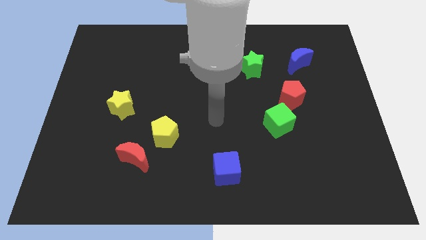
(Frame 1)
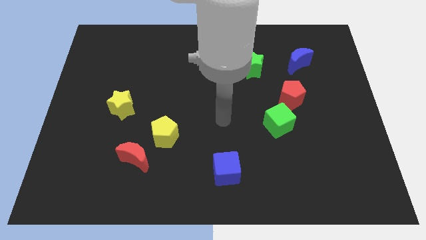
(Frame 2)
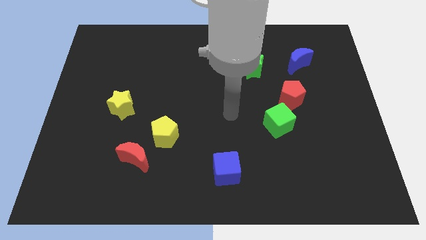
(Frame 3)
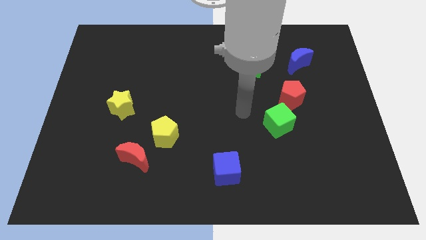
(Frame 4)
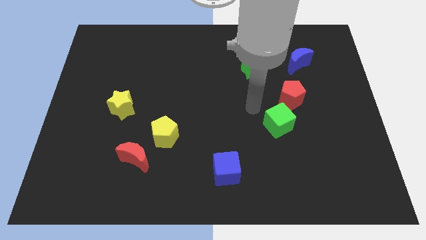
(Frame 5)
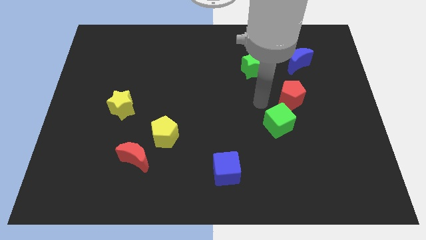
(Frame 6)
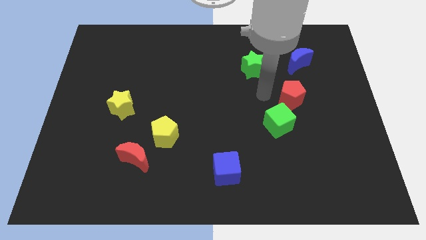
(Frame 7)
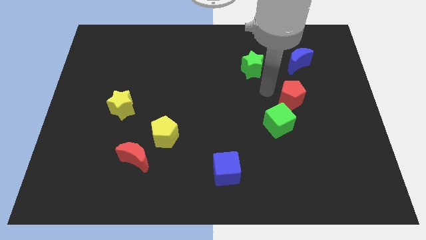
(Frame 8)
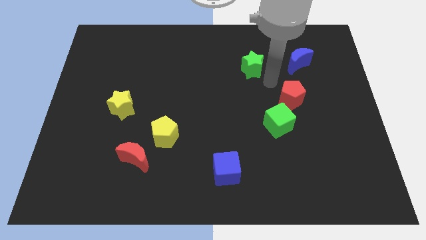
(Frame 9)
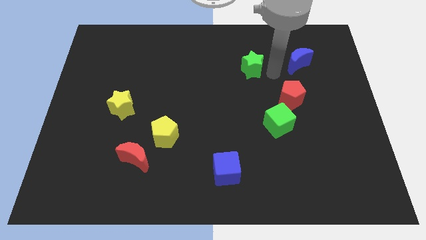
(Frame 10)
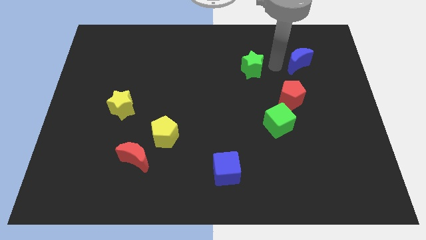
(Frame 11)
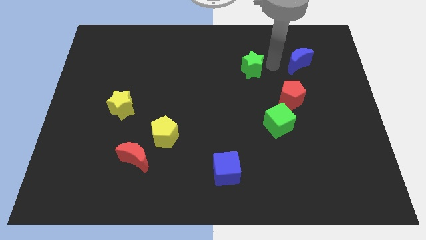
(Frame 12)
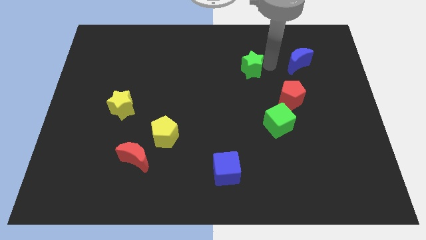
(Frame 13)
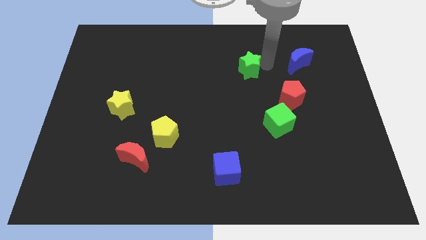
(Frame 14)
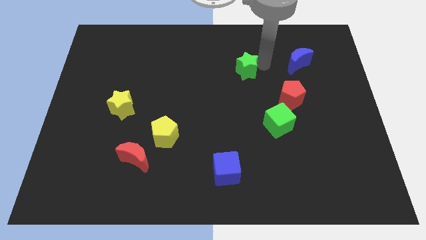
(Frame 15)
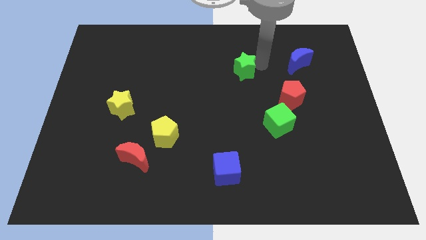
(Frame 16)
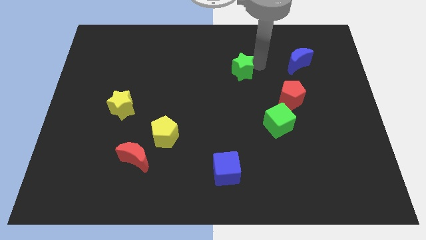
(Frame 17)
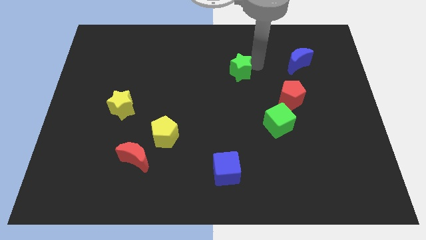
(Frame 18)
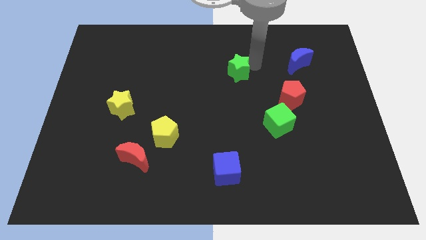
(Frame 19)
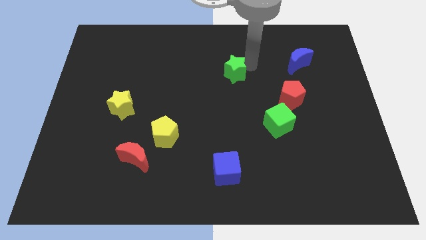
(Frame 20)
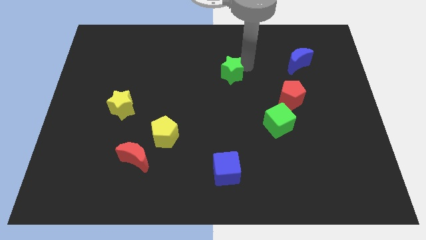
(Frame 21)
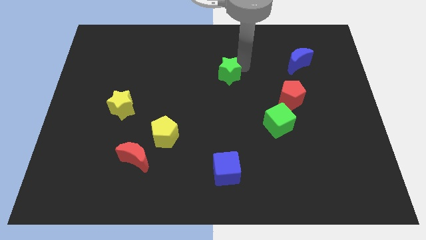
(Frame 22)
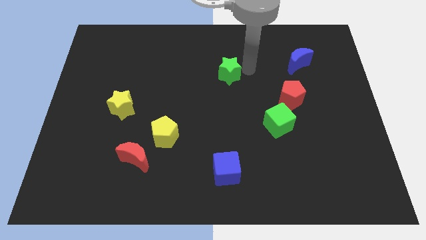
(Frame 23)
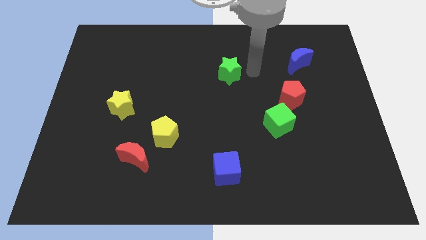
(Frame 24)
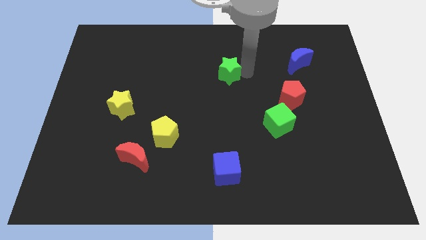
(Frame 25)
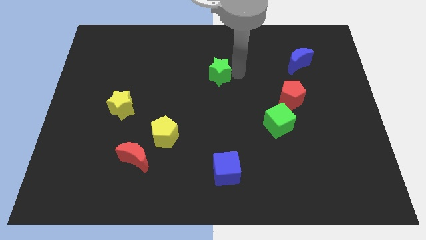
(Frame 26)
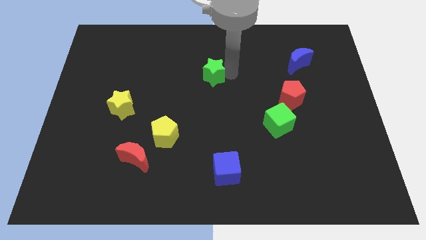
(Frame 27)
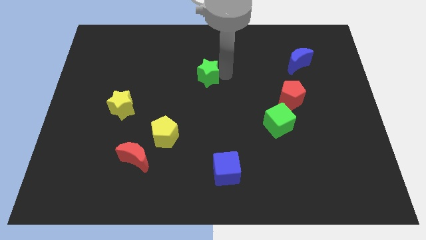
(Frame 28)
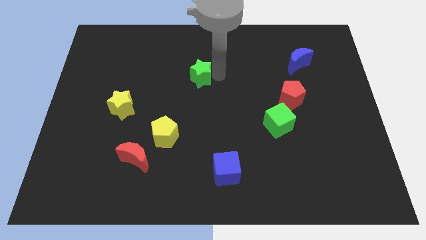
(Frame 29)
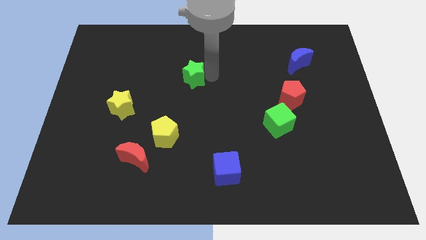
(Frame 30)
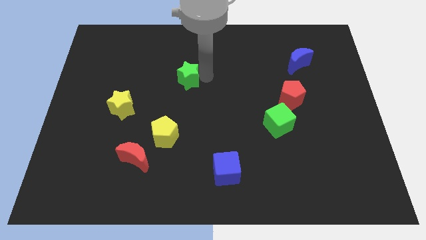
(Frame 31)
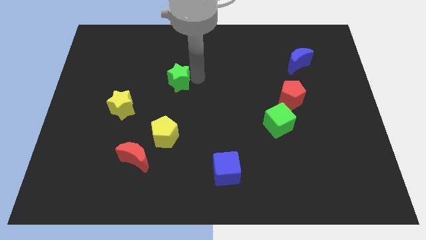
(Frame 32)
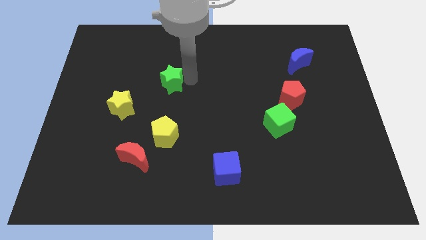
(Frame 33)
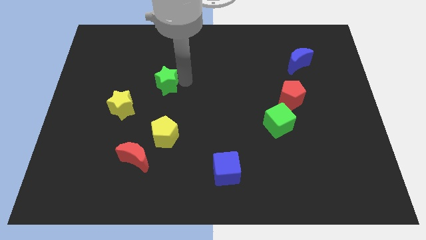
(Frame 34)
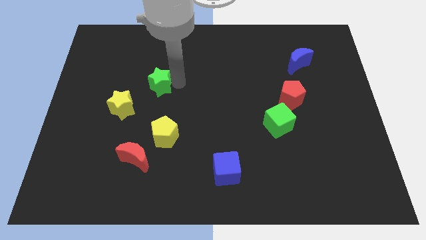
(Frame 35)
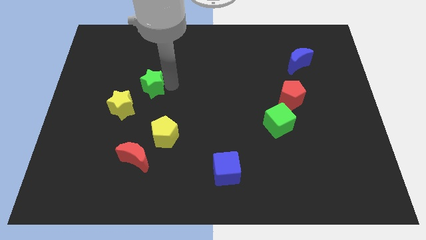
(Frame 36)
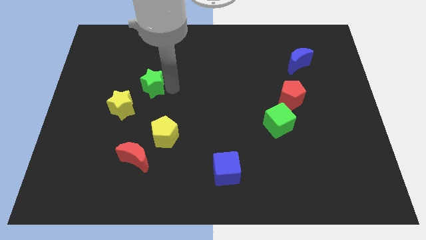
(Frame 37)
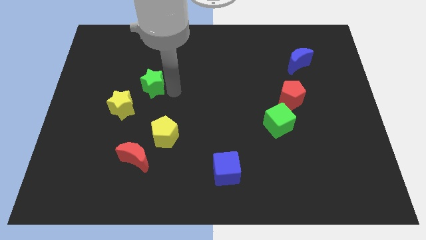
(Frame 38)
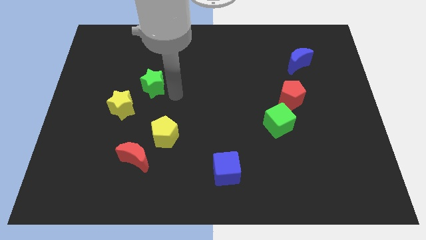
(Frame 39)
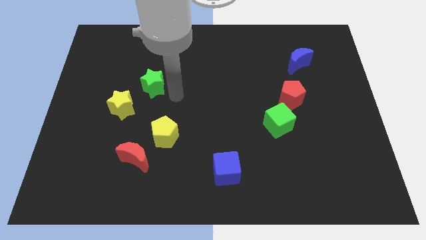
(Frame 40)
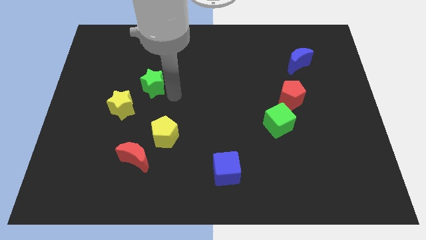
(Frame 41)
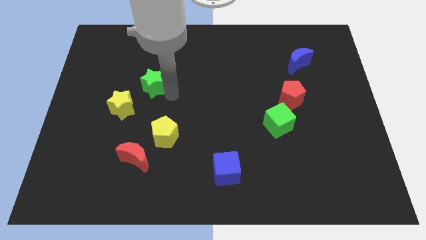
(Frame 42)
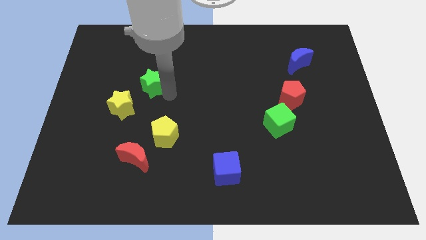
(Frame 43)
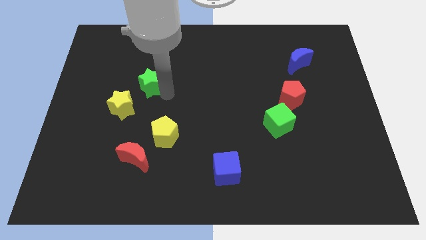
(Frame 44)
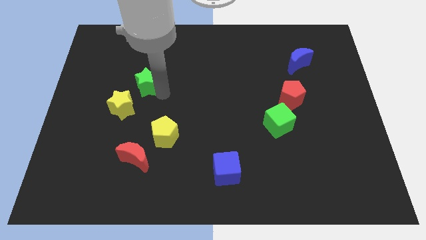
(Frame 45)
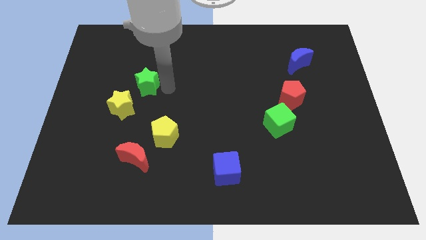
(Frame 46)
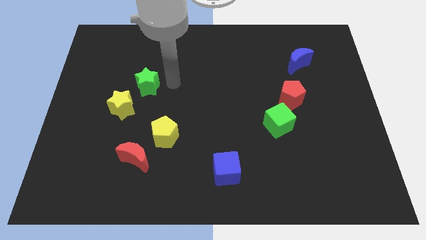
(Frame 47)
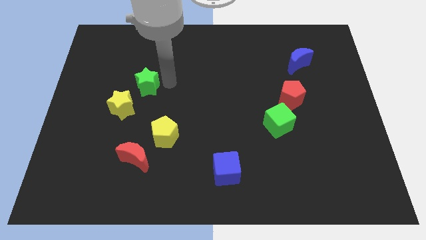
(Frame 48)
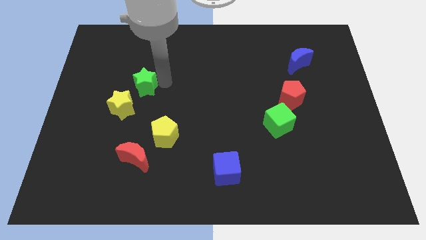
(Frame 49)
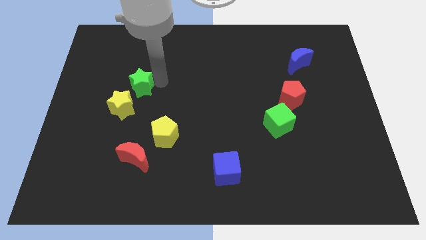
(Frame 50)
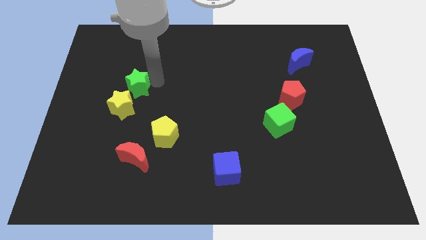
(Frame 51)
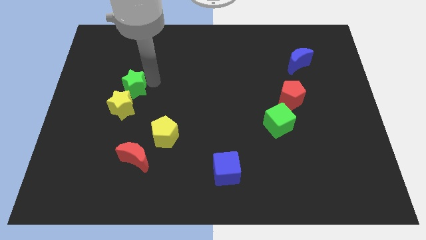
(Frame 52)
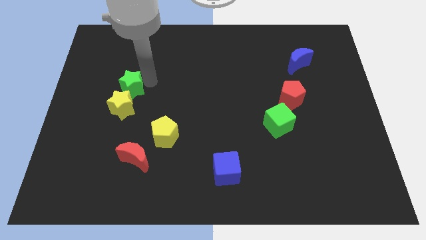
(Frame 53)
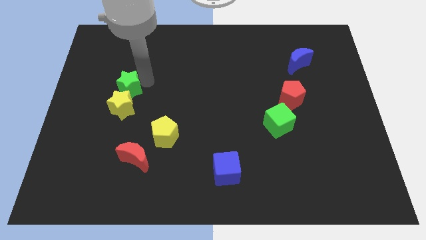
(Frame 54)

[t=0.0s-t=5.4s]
slide the green star diagonally up and to the left of the yellow star

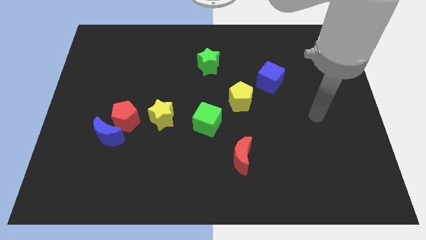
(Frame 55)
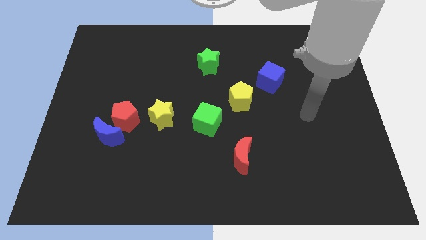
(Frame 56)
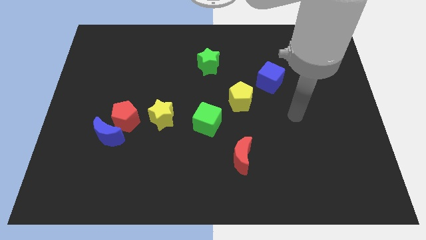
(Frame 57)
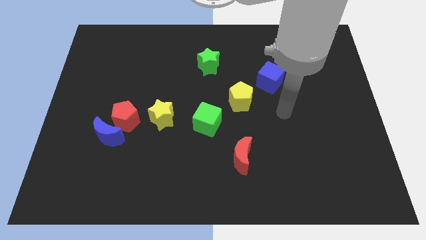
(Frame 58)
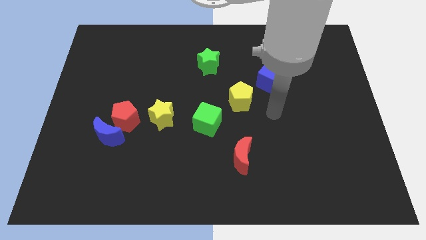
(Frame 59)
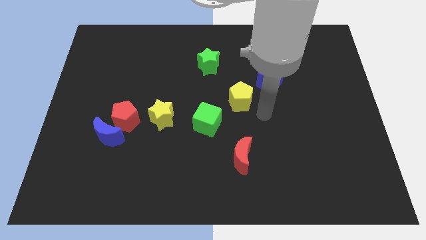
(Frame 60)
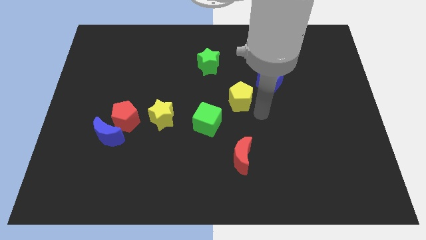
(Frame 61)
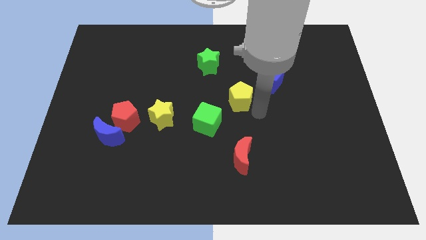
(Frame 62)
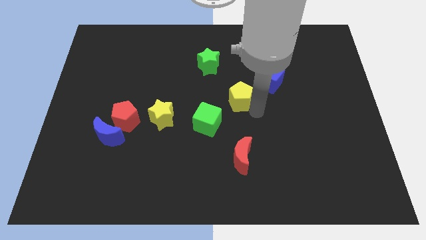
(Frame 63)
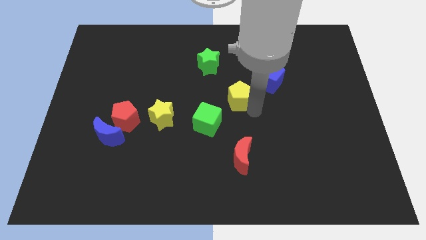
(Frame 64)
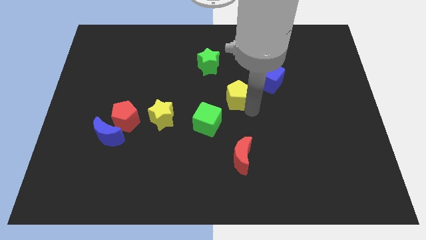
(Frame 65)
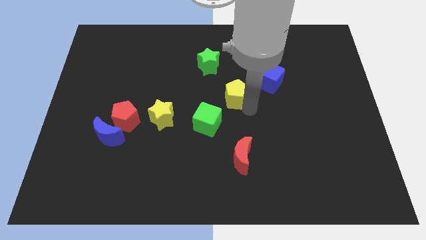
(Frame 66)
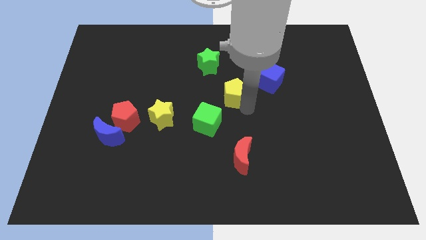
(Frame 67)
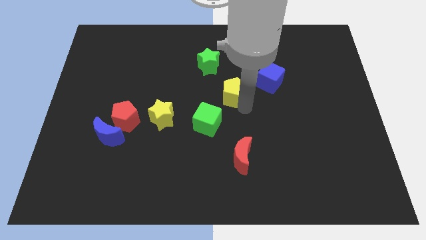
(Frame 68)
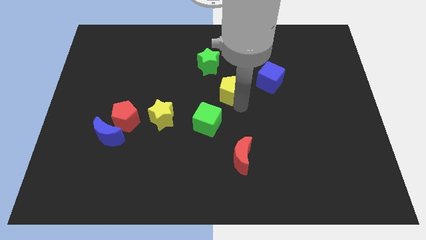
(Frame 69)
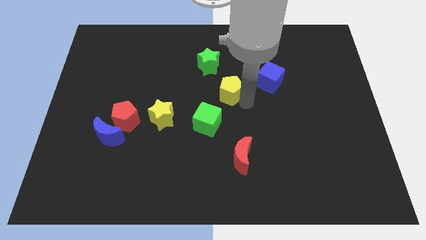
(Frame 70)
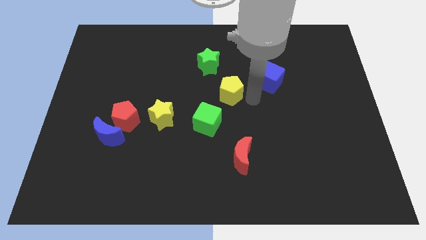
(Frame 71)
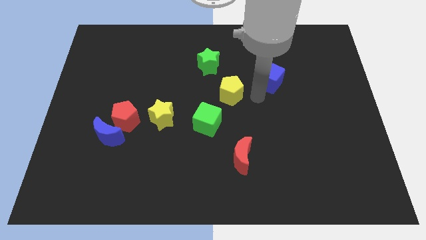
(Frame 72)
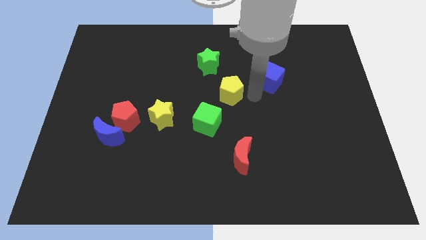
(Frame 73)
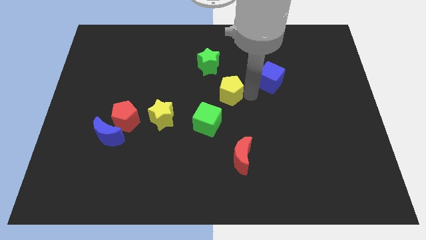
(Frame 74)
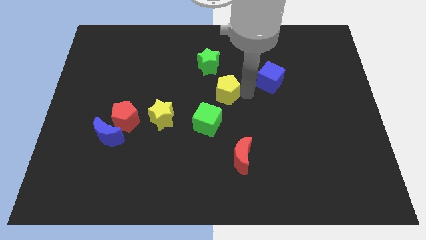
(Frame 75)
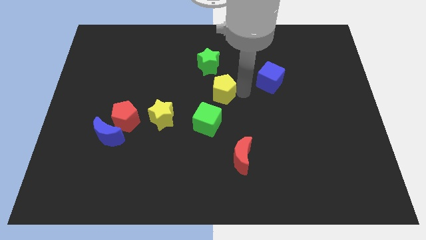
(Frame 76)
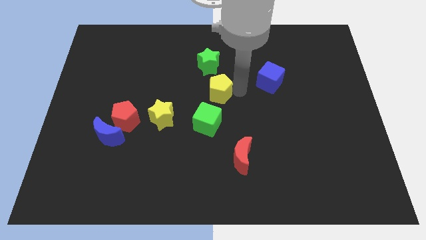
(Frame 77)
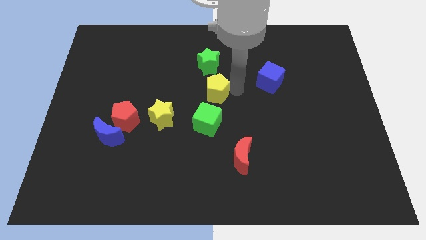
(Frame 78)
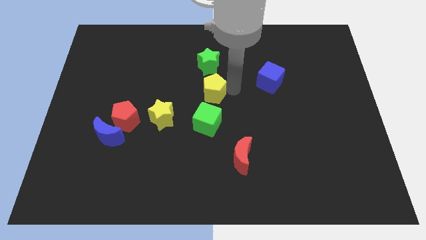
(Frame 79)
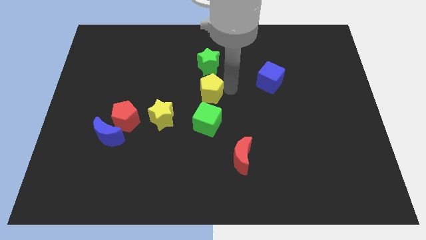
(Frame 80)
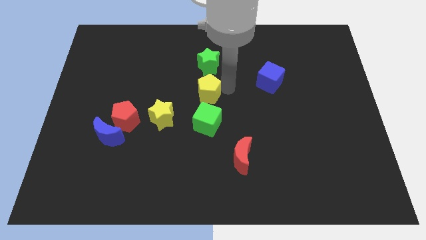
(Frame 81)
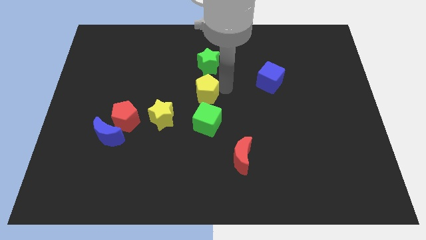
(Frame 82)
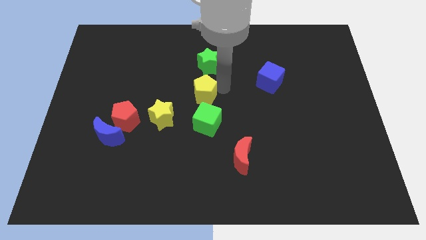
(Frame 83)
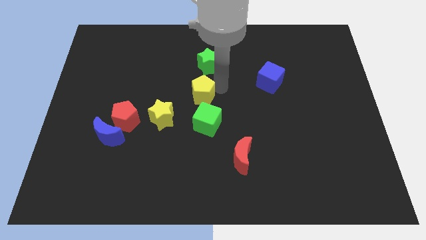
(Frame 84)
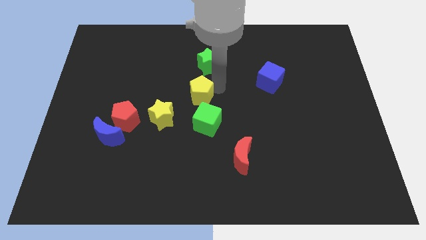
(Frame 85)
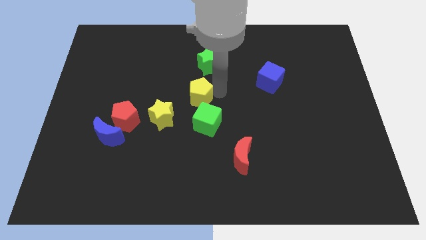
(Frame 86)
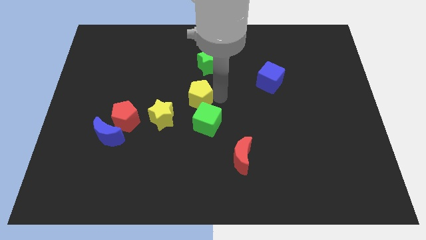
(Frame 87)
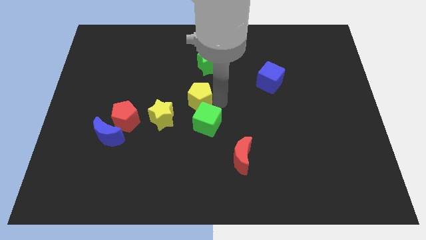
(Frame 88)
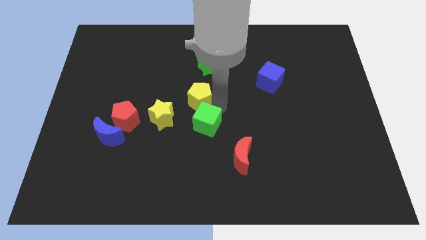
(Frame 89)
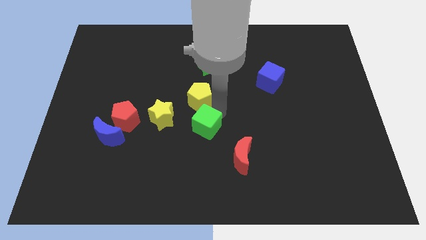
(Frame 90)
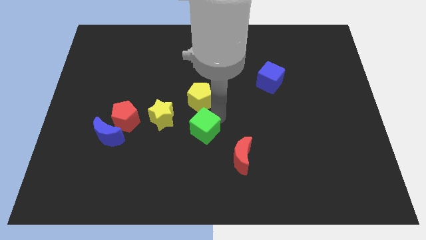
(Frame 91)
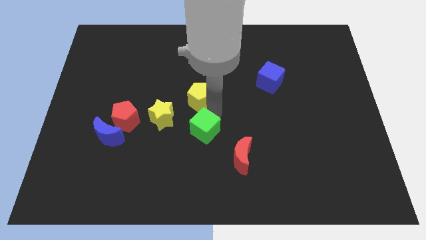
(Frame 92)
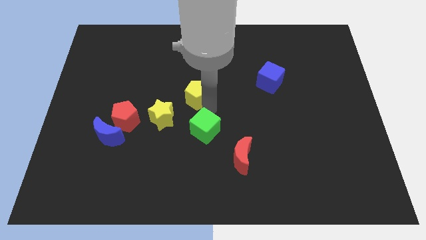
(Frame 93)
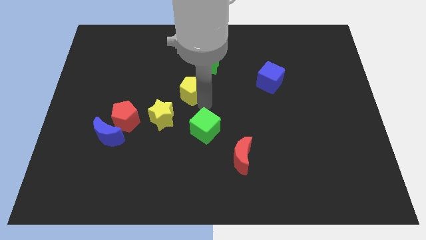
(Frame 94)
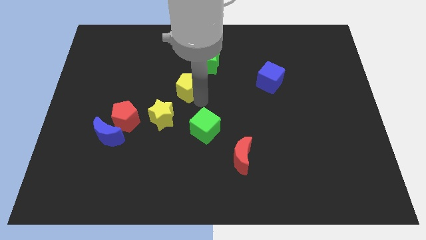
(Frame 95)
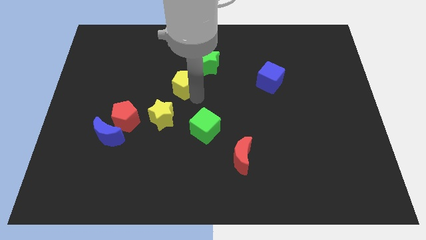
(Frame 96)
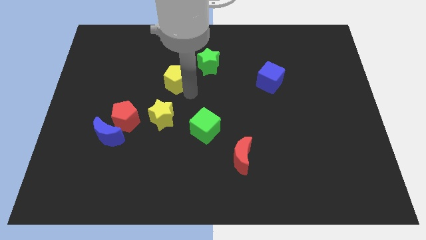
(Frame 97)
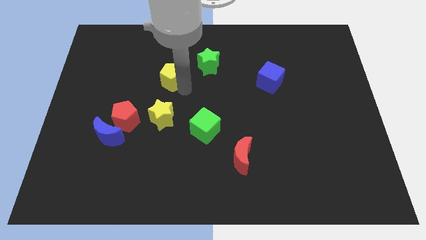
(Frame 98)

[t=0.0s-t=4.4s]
put the yellow pentagon left of the green star
